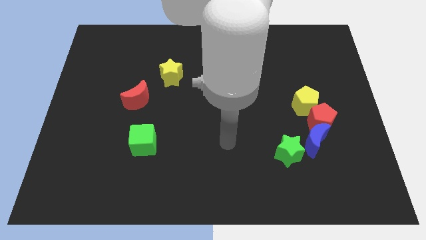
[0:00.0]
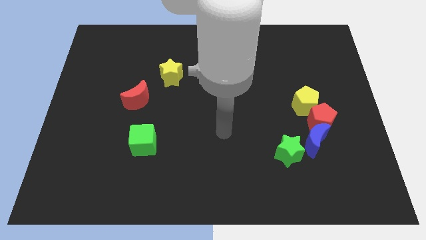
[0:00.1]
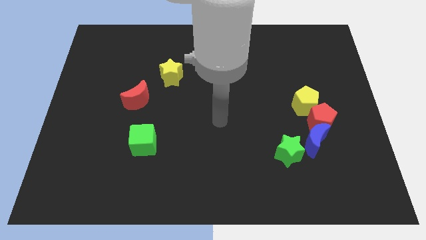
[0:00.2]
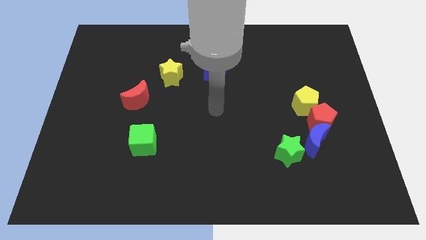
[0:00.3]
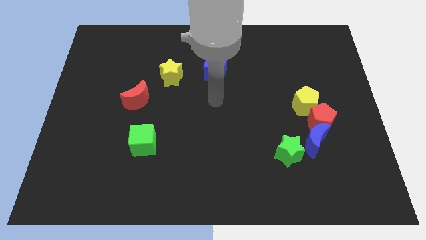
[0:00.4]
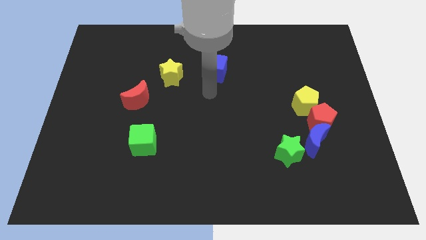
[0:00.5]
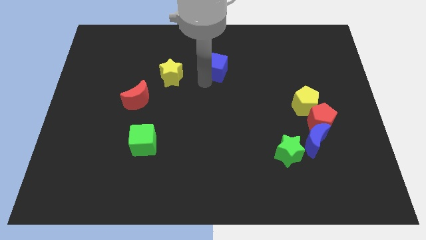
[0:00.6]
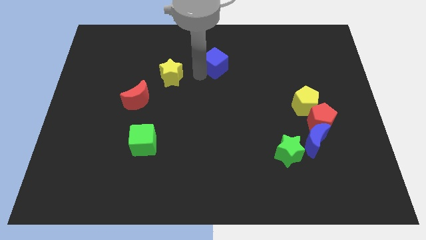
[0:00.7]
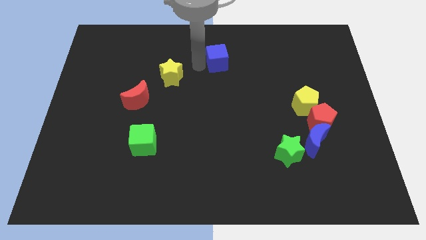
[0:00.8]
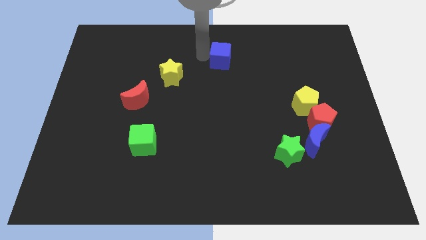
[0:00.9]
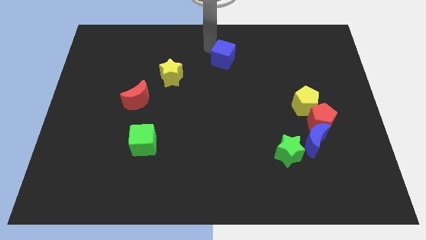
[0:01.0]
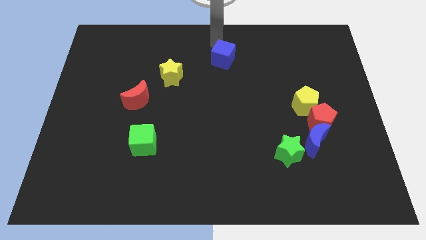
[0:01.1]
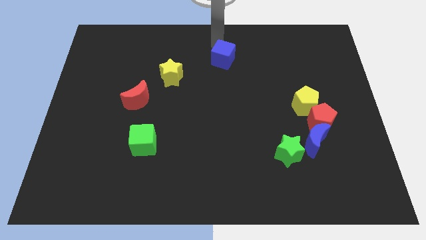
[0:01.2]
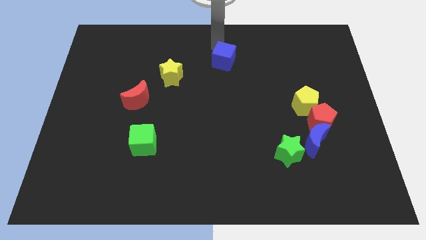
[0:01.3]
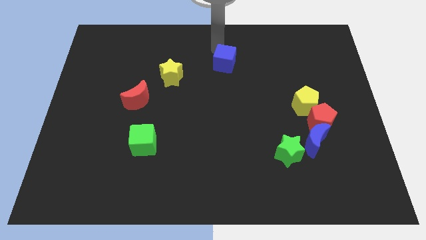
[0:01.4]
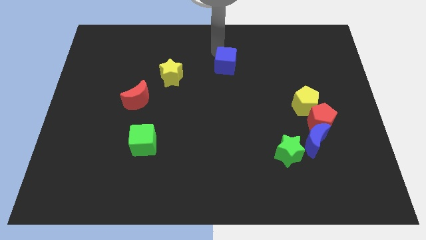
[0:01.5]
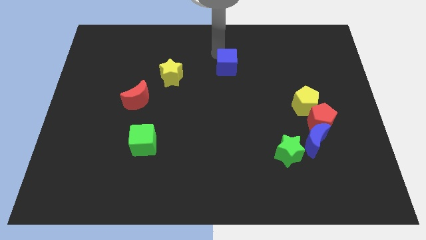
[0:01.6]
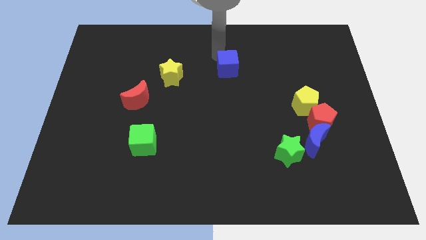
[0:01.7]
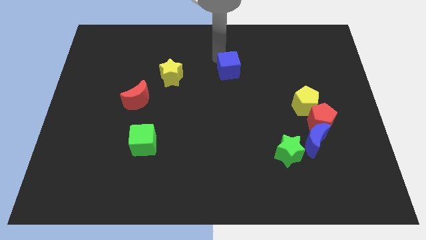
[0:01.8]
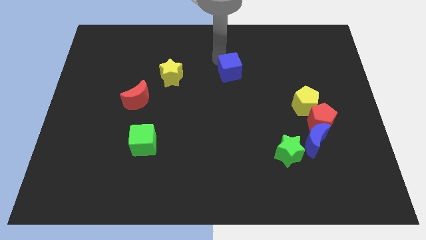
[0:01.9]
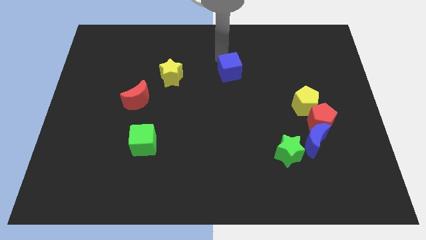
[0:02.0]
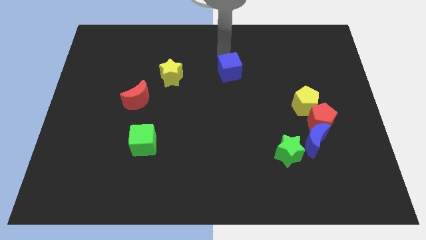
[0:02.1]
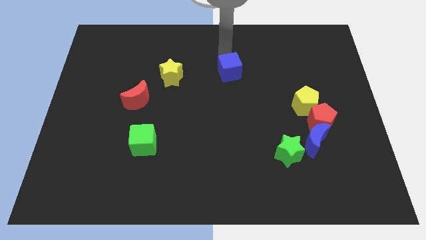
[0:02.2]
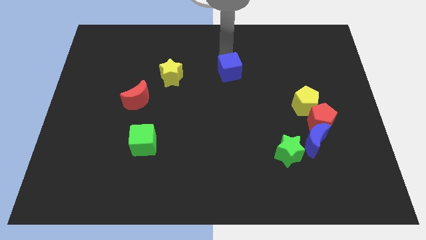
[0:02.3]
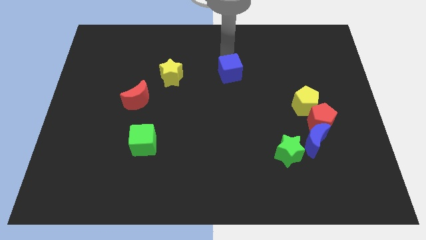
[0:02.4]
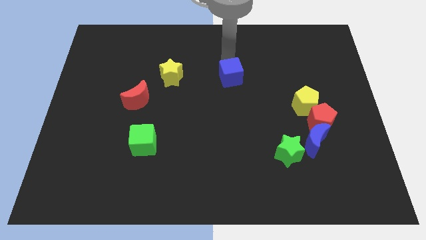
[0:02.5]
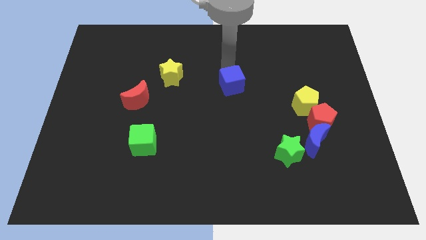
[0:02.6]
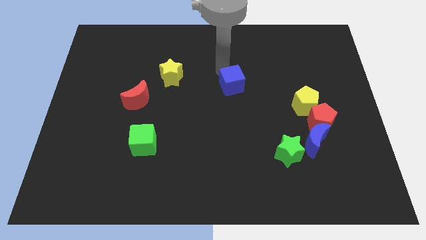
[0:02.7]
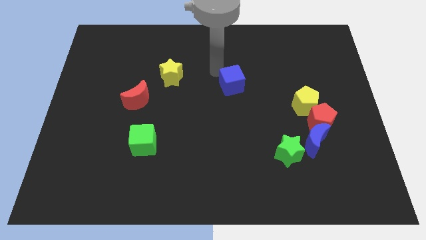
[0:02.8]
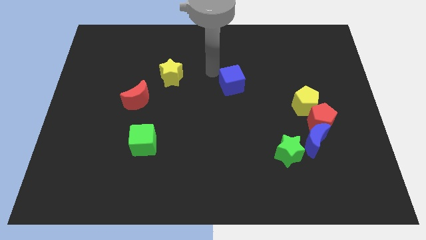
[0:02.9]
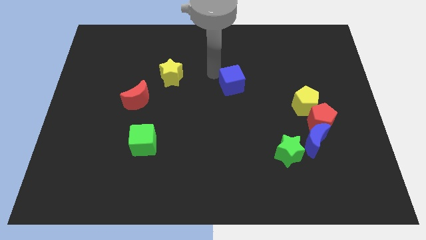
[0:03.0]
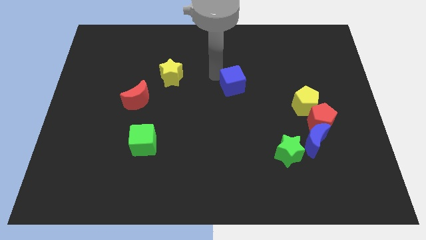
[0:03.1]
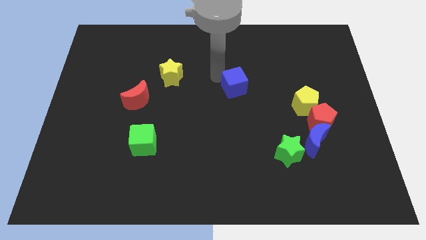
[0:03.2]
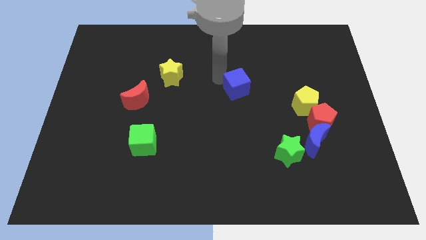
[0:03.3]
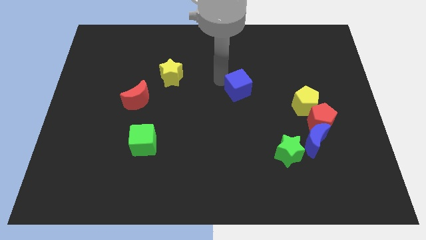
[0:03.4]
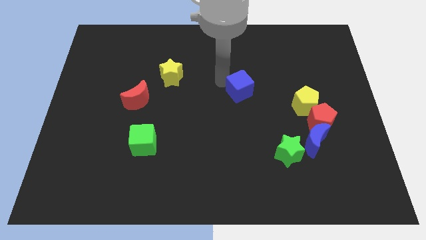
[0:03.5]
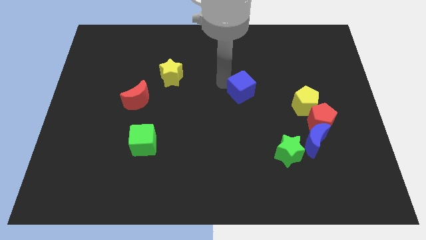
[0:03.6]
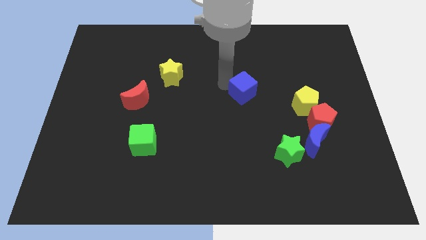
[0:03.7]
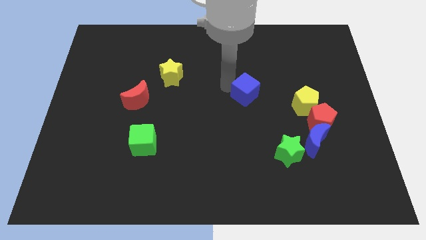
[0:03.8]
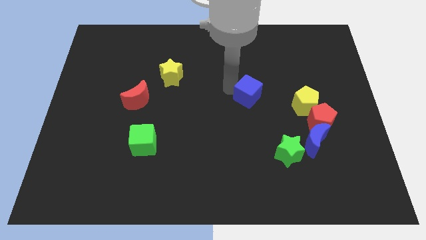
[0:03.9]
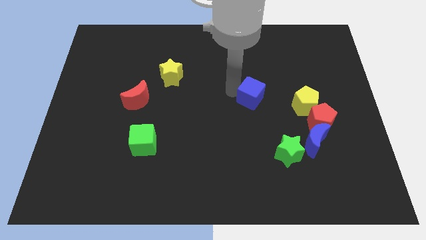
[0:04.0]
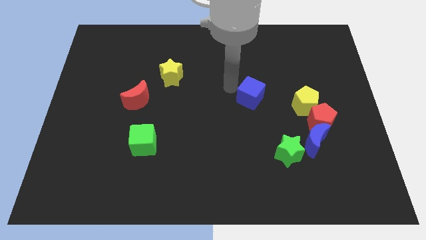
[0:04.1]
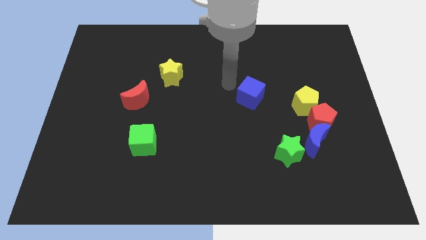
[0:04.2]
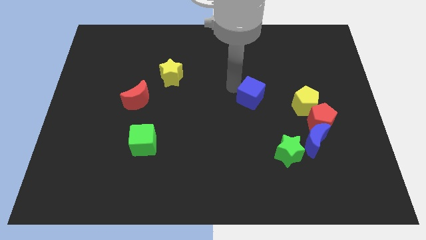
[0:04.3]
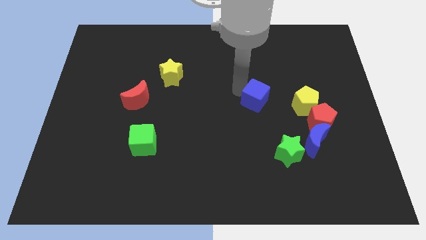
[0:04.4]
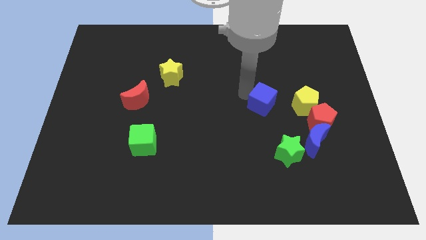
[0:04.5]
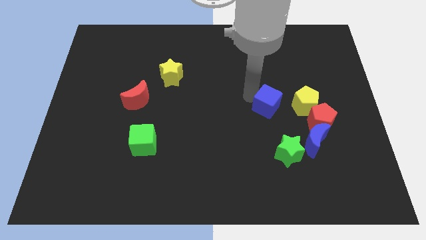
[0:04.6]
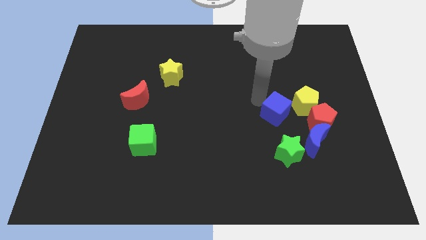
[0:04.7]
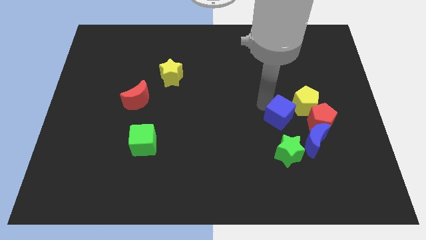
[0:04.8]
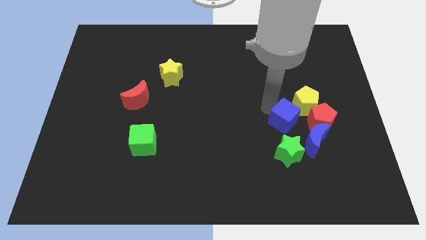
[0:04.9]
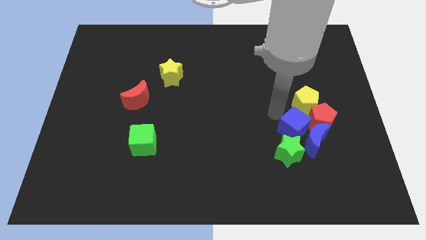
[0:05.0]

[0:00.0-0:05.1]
push the blue cube to the blue moon

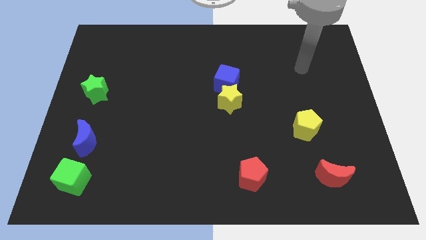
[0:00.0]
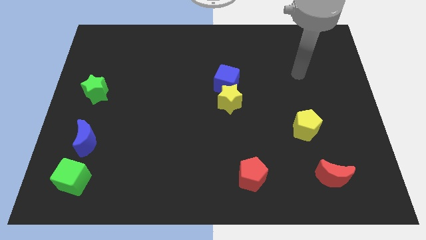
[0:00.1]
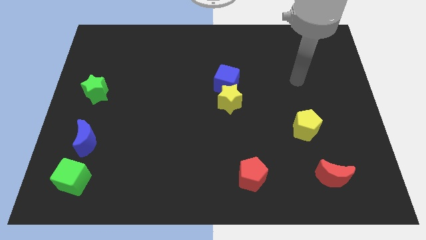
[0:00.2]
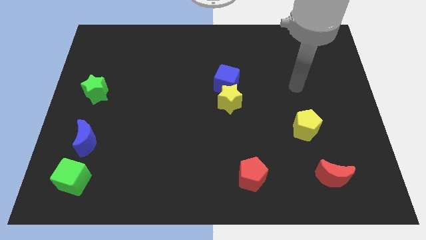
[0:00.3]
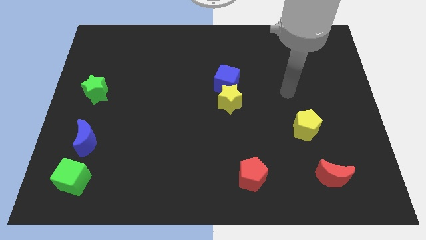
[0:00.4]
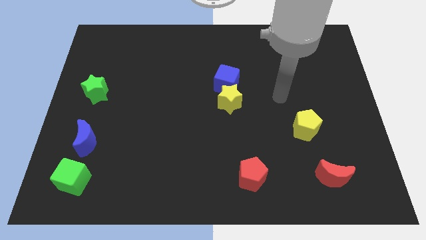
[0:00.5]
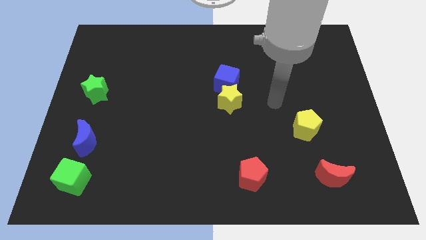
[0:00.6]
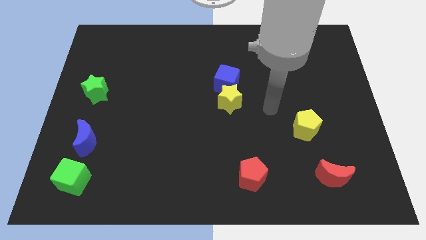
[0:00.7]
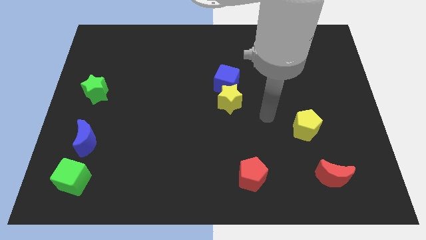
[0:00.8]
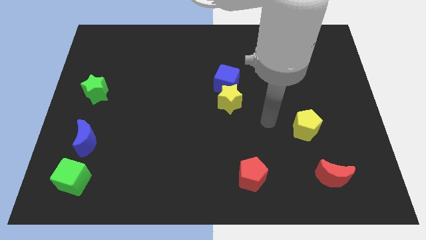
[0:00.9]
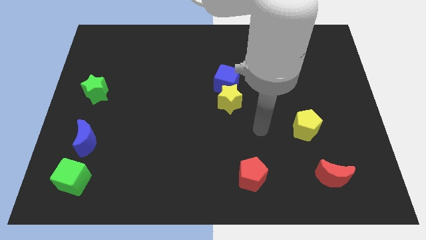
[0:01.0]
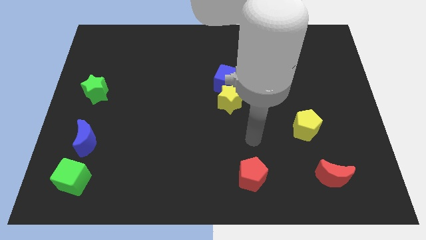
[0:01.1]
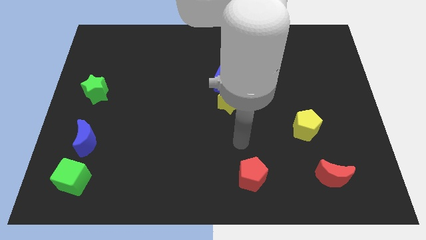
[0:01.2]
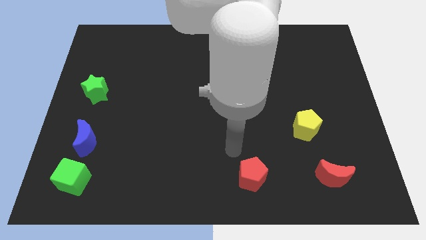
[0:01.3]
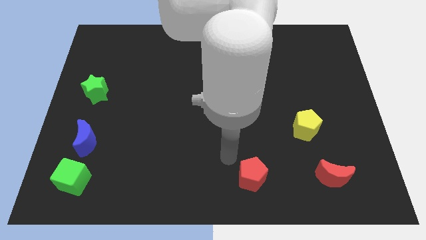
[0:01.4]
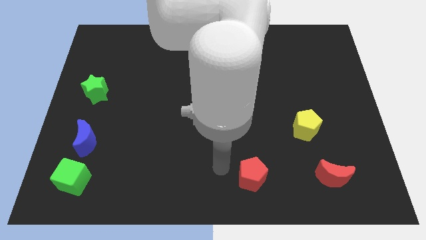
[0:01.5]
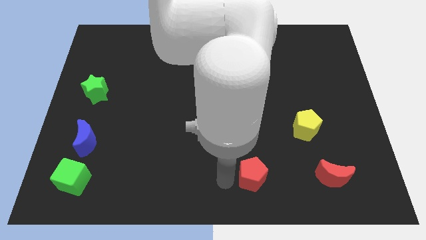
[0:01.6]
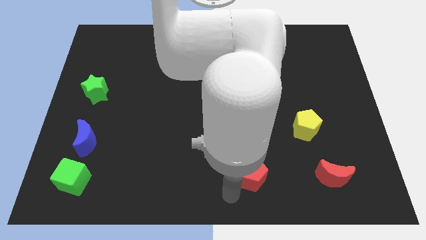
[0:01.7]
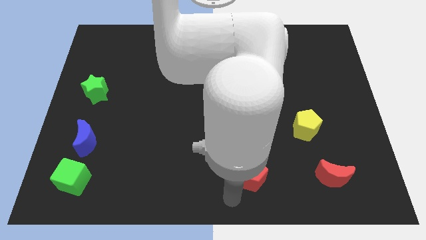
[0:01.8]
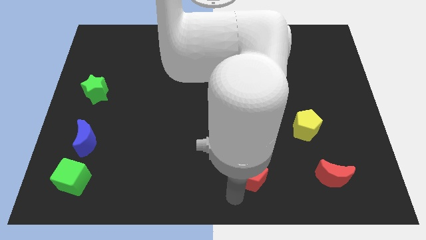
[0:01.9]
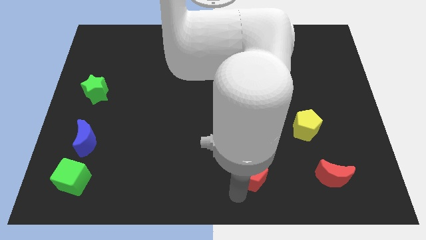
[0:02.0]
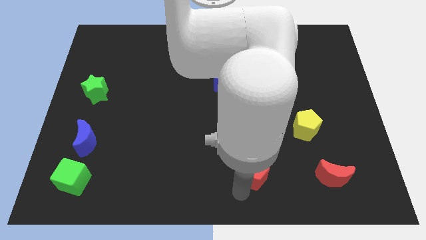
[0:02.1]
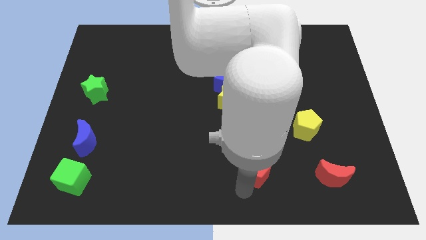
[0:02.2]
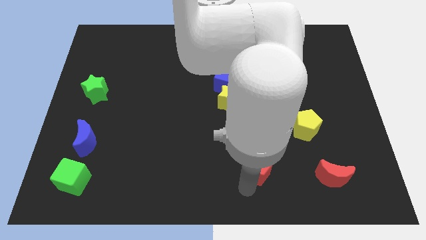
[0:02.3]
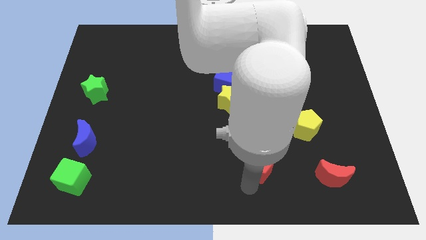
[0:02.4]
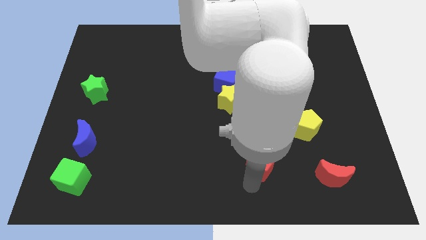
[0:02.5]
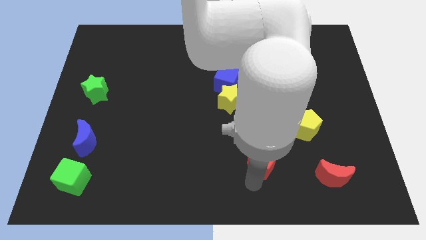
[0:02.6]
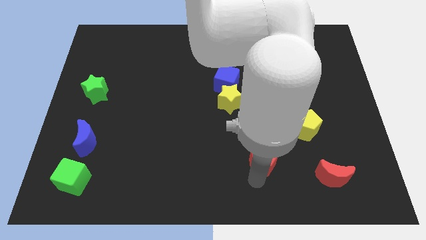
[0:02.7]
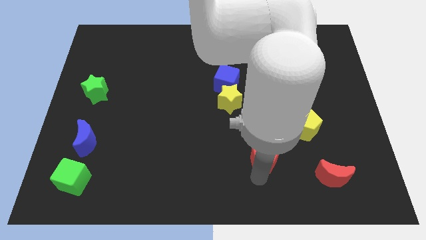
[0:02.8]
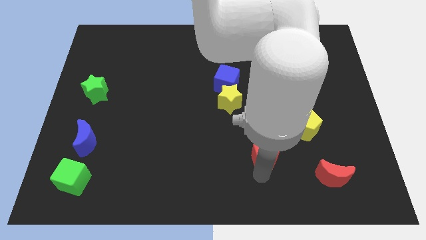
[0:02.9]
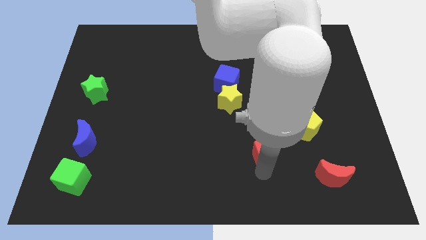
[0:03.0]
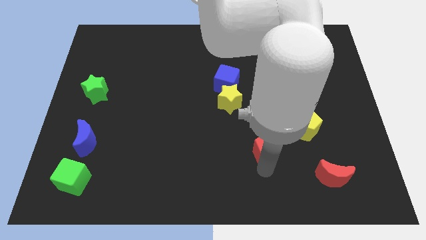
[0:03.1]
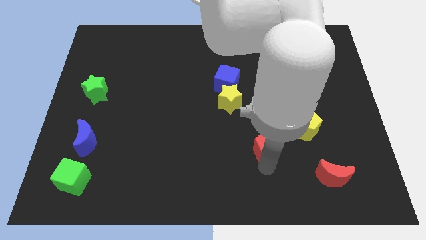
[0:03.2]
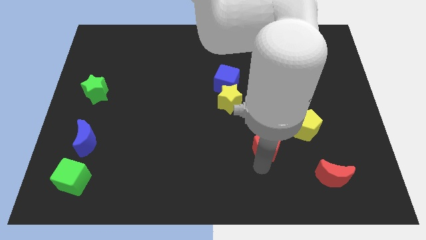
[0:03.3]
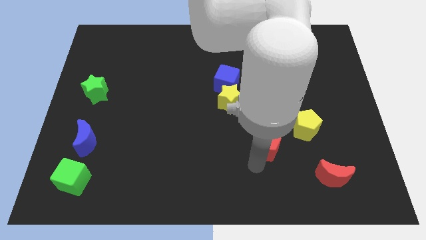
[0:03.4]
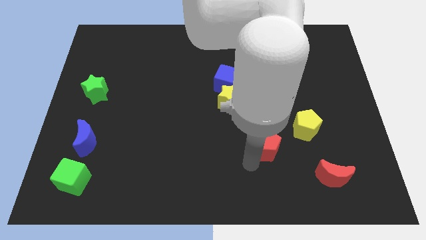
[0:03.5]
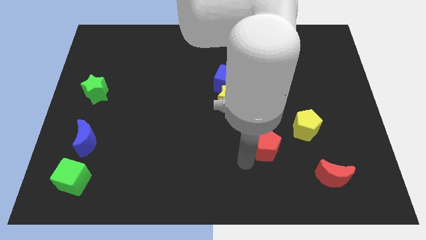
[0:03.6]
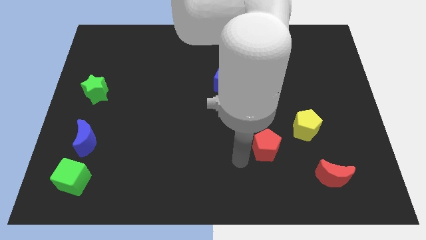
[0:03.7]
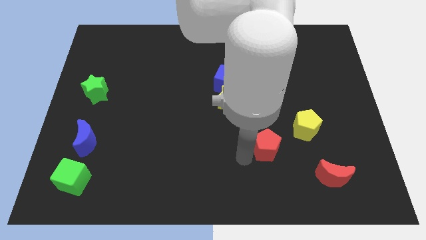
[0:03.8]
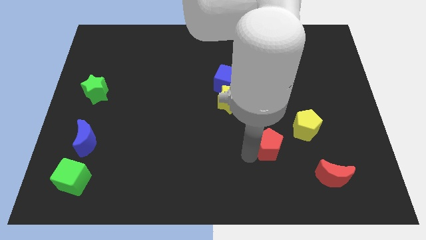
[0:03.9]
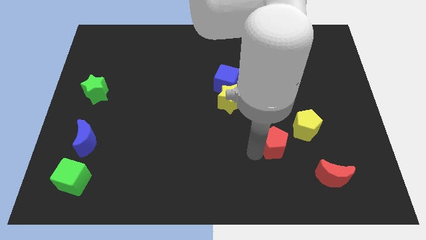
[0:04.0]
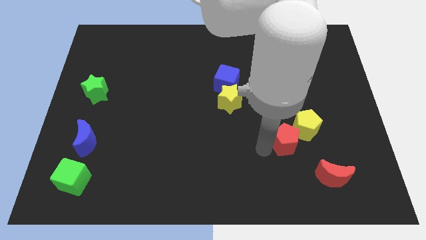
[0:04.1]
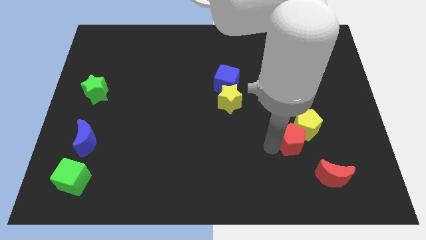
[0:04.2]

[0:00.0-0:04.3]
push the red pentagon next to the yellow pentagon
